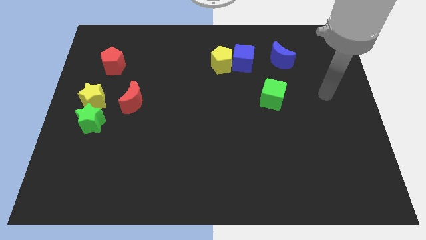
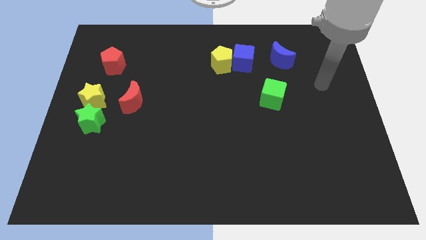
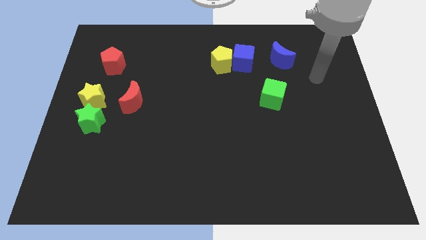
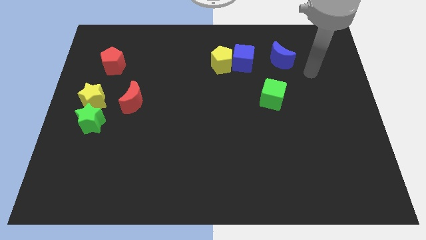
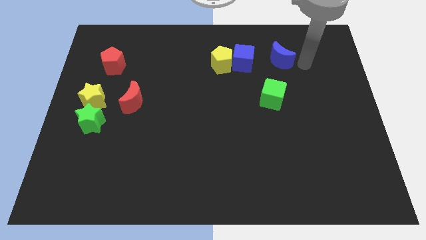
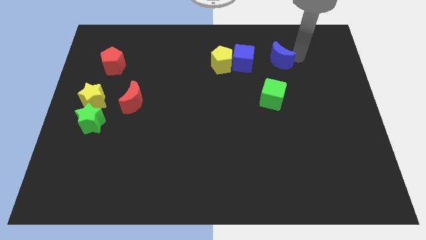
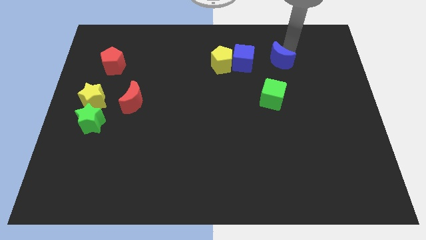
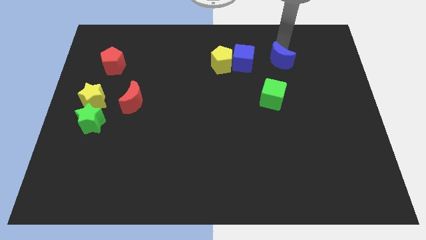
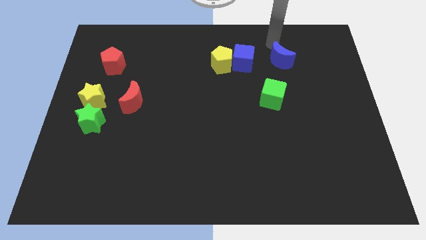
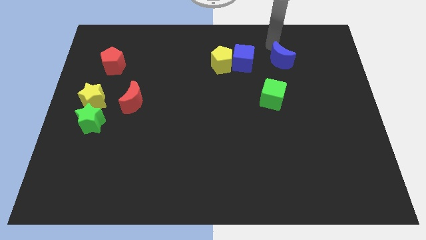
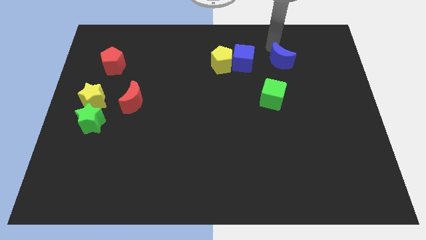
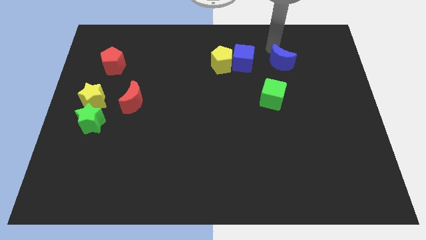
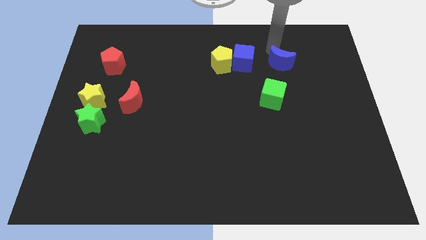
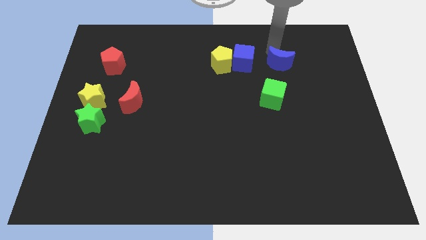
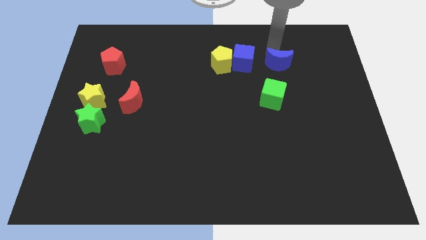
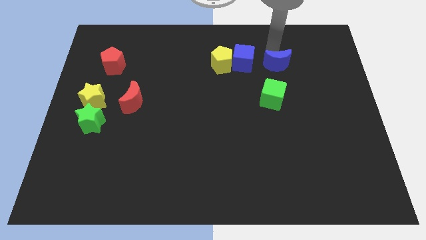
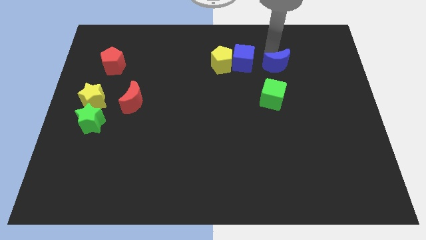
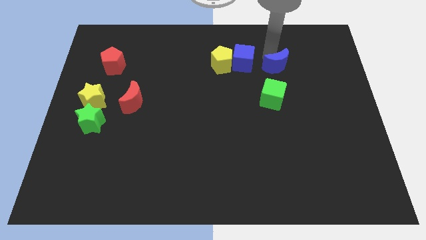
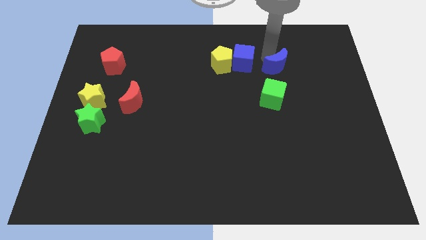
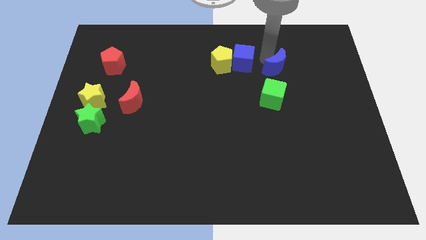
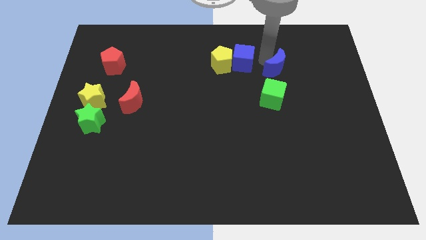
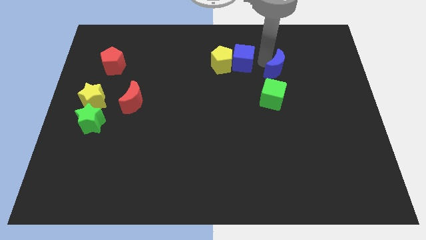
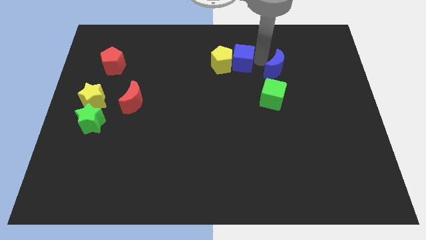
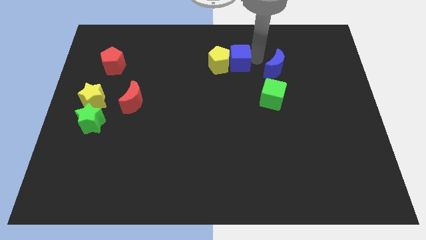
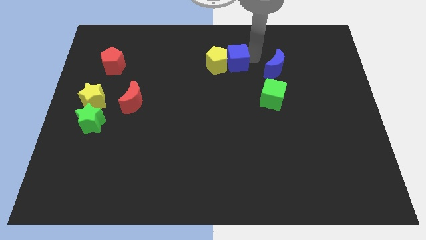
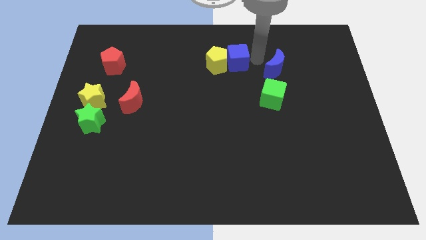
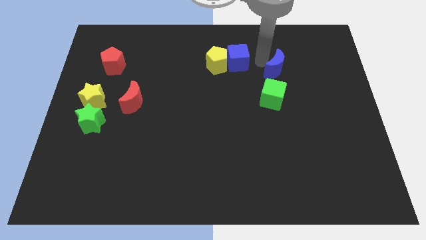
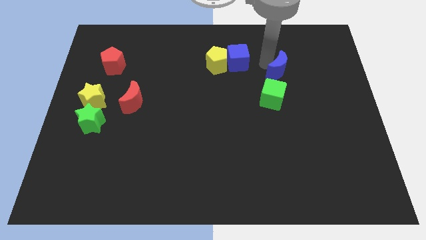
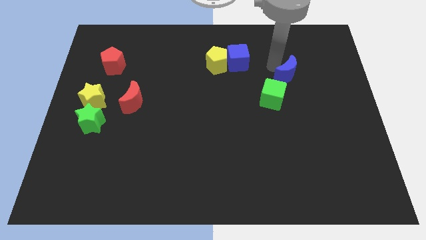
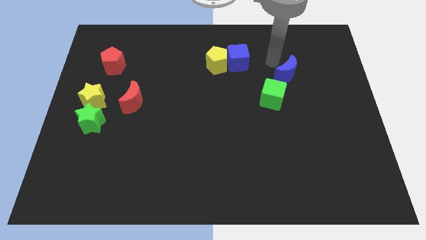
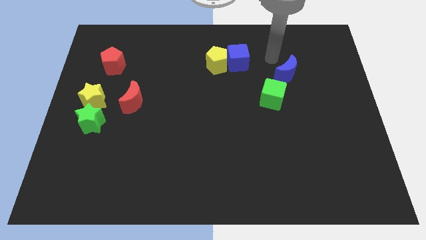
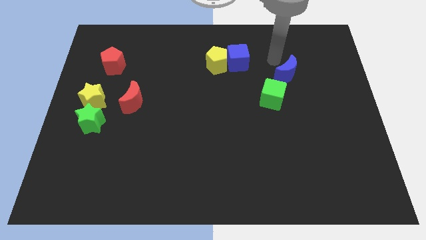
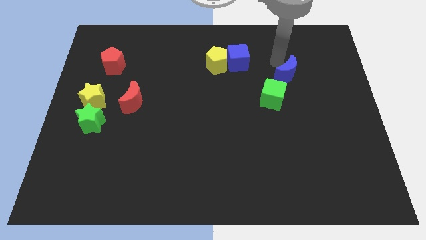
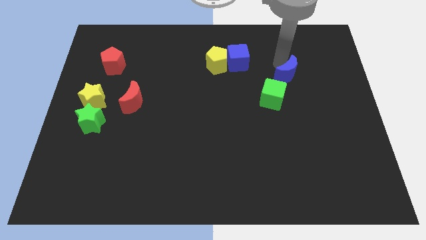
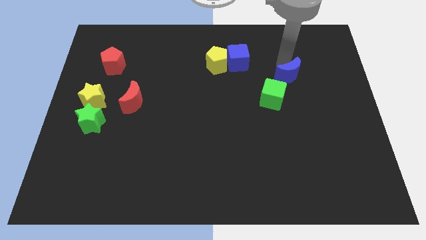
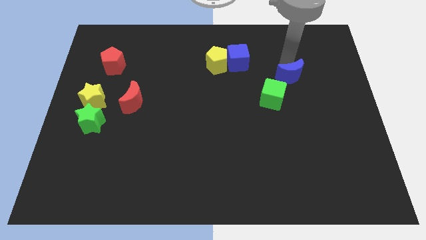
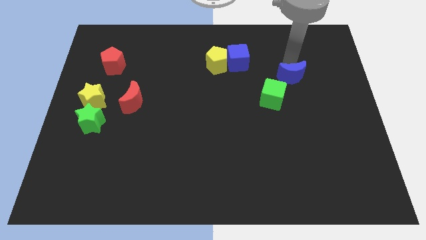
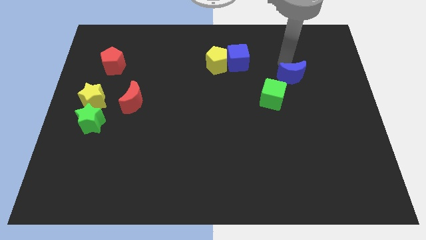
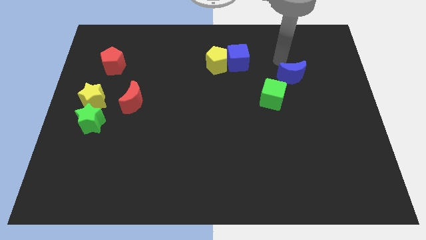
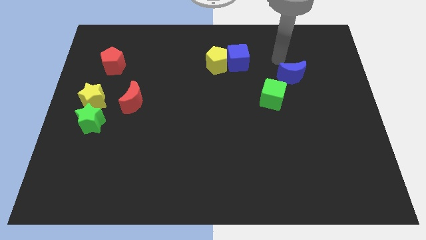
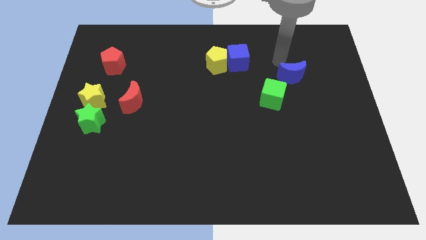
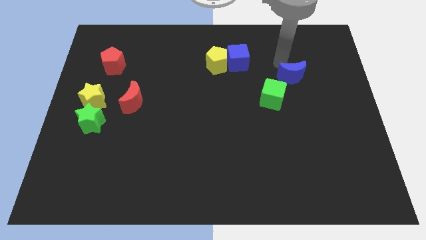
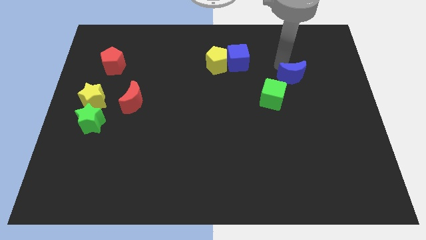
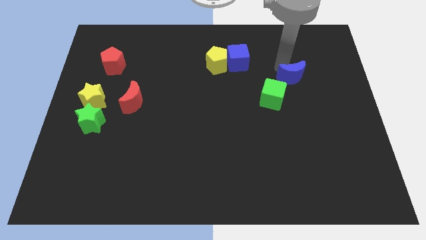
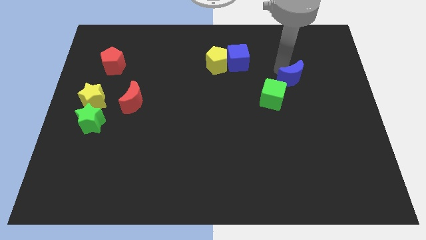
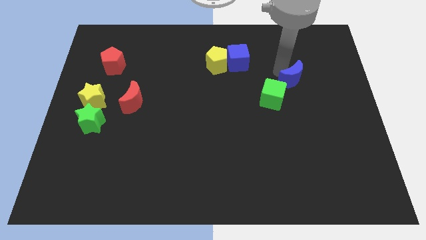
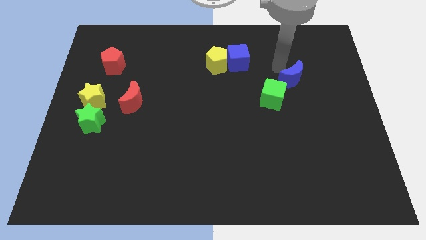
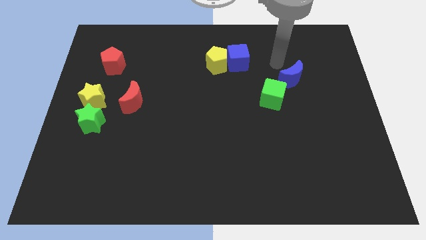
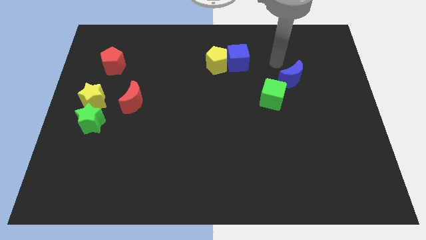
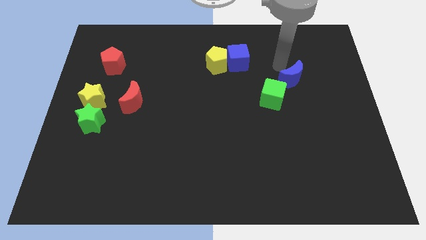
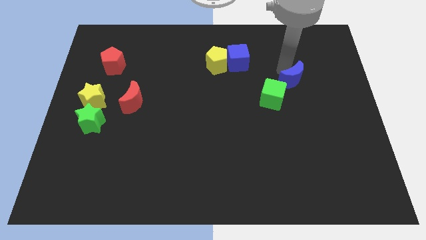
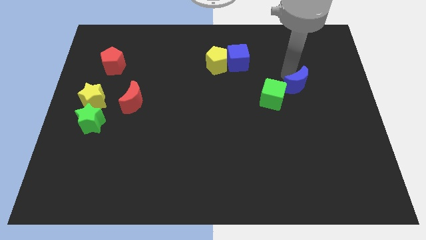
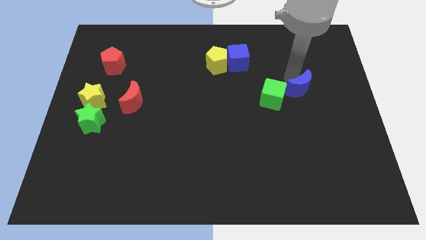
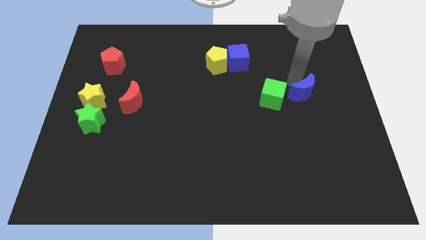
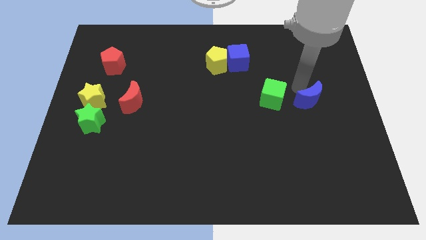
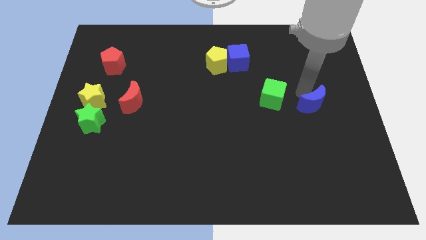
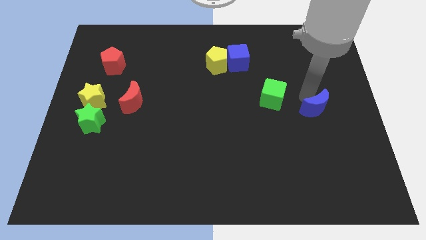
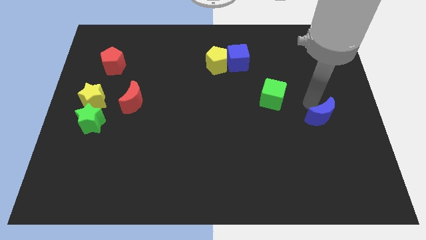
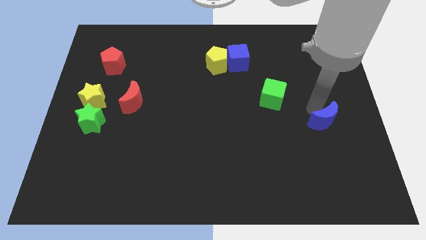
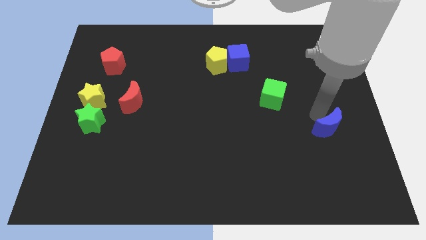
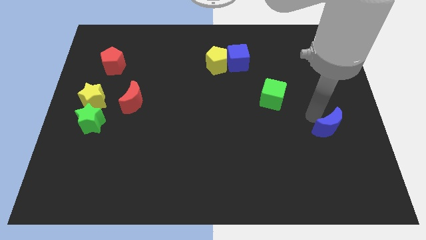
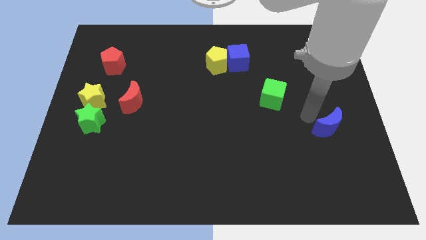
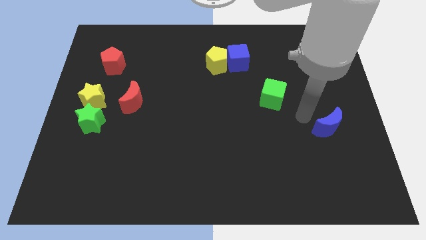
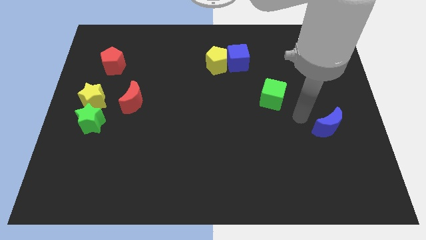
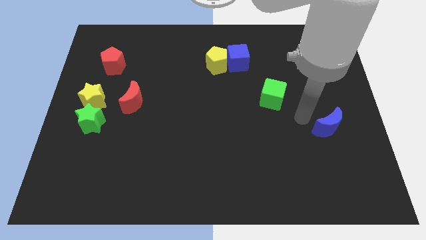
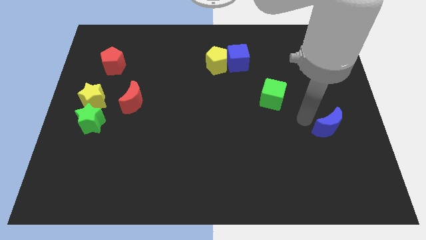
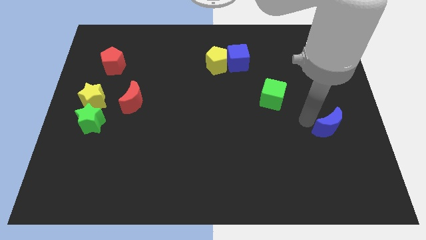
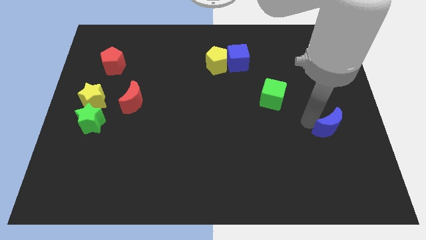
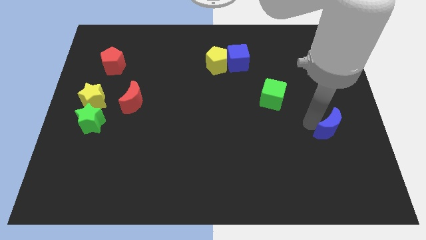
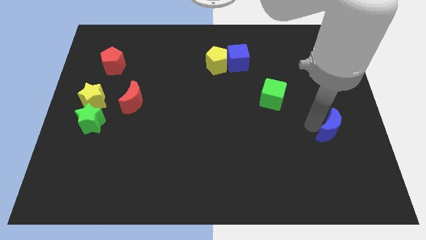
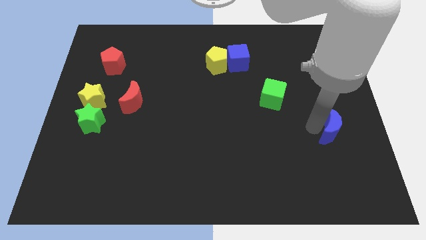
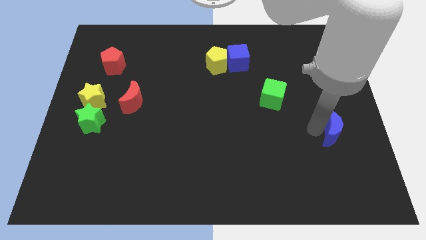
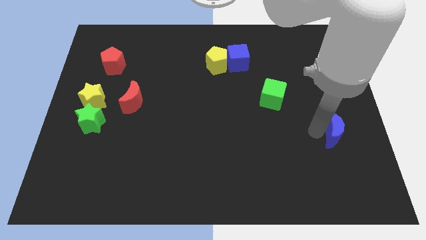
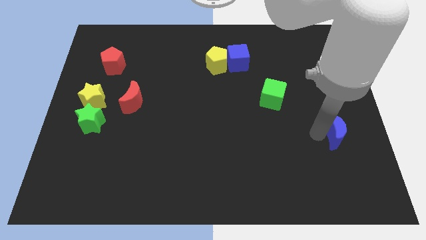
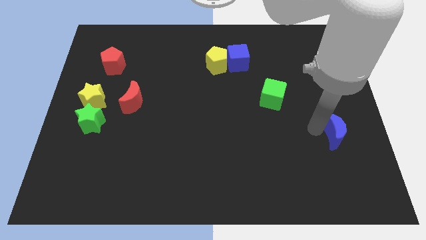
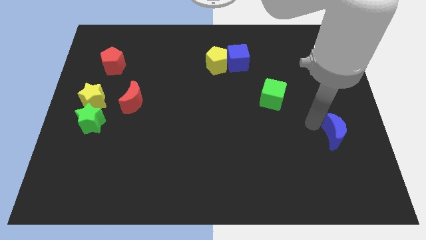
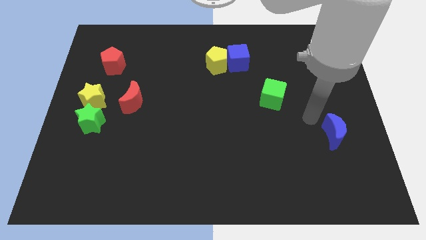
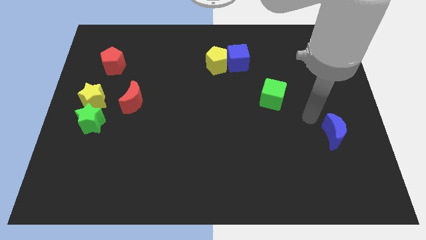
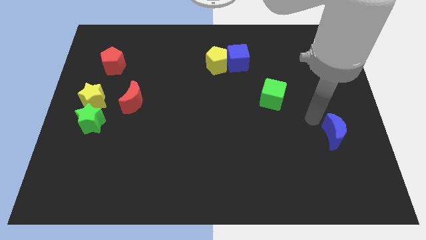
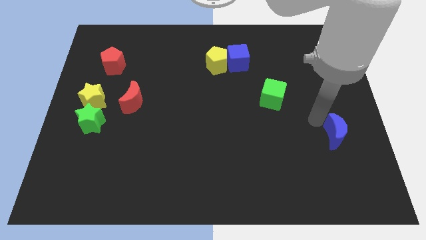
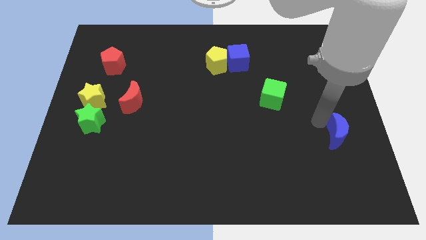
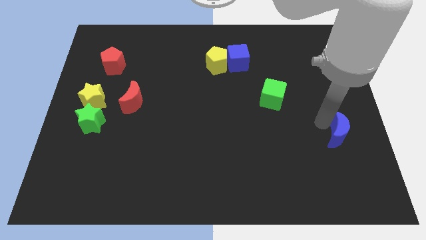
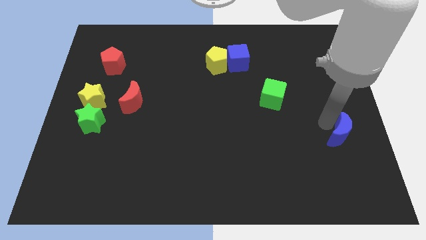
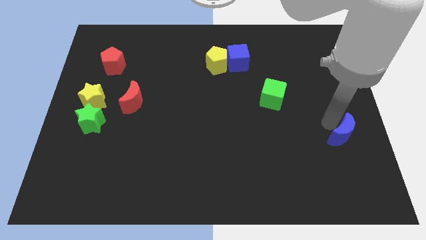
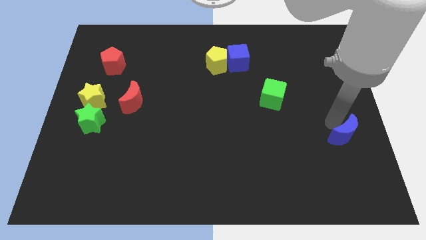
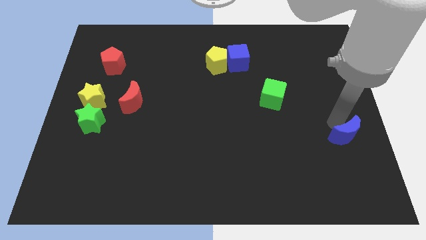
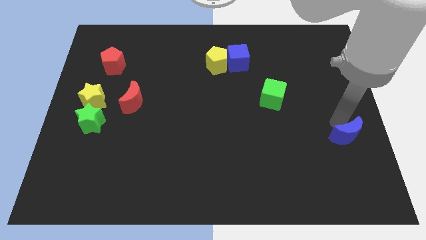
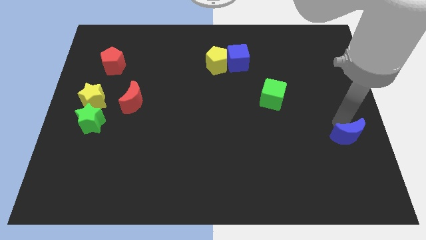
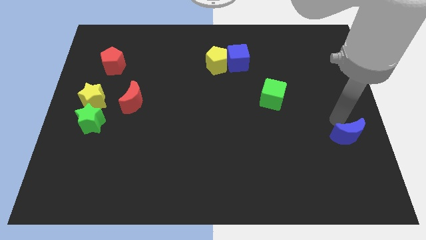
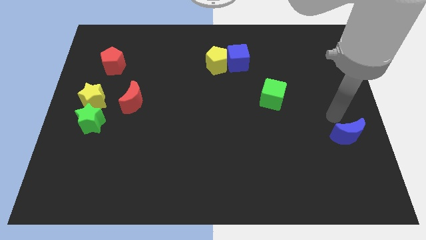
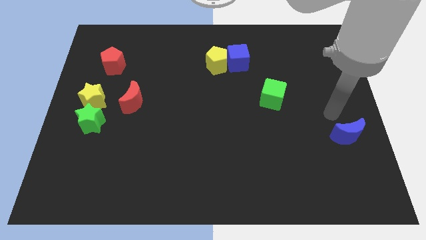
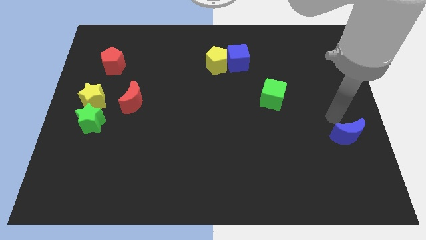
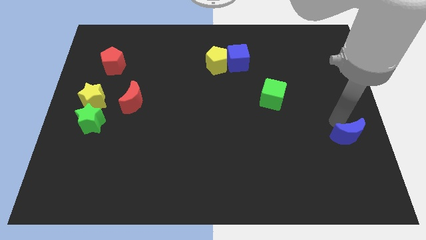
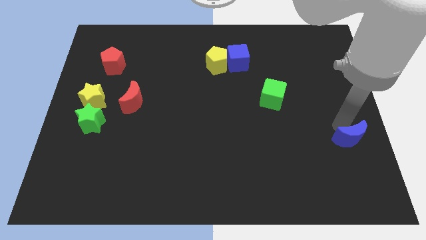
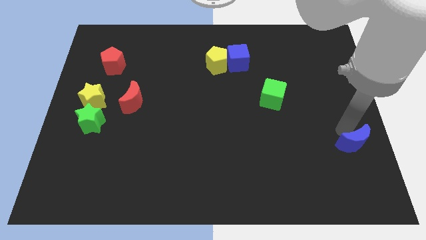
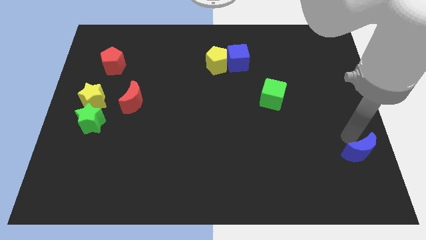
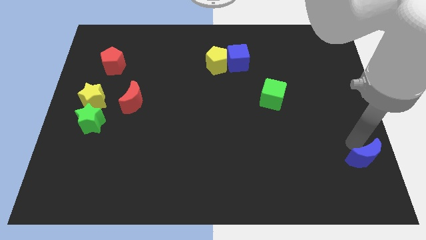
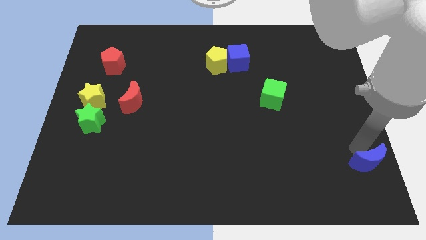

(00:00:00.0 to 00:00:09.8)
slide the blue moon to the bottom right corner
